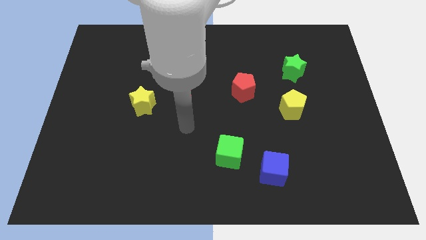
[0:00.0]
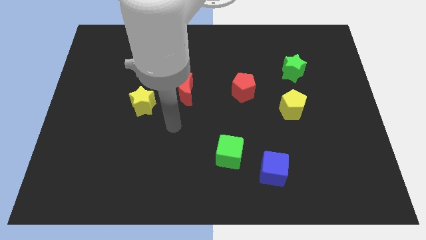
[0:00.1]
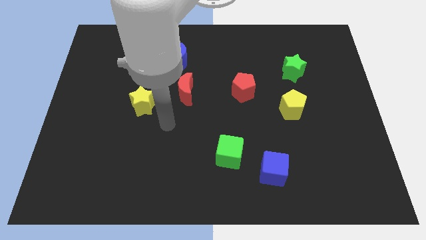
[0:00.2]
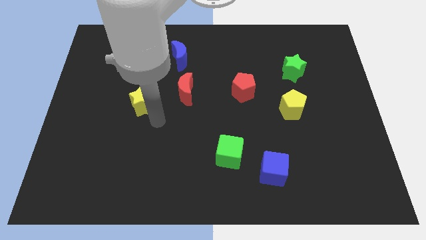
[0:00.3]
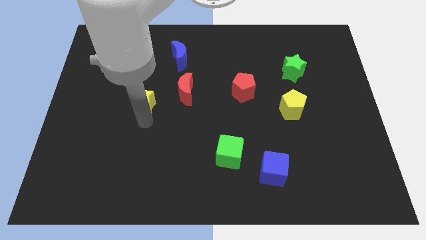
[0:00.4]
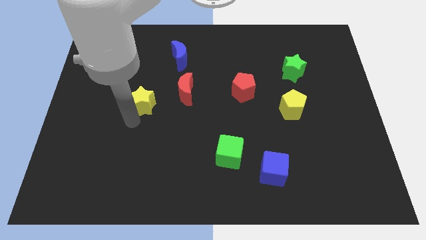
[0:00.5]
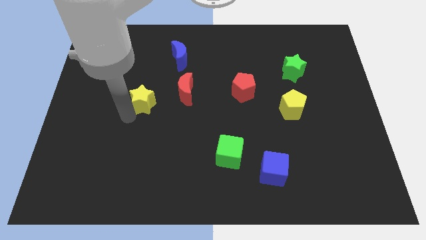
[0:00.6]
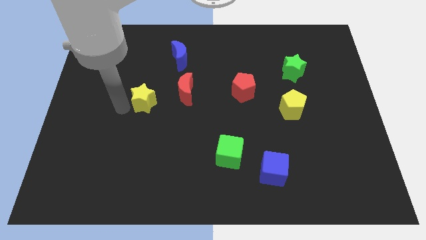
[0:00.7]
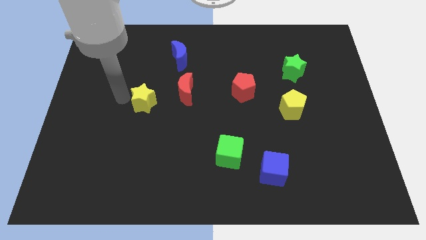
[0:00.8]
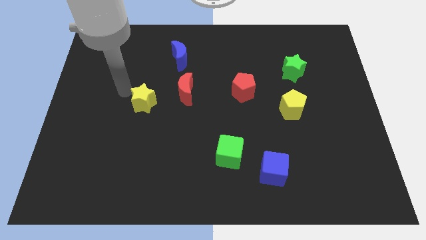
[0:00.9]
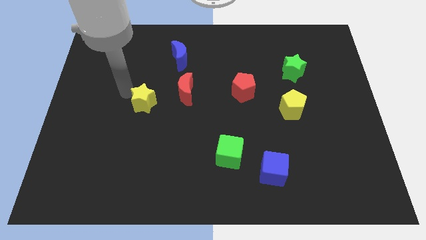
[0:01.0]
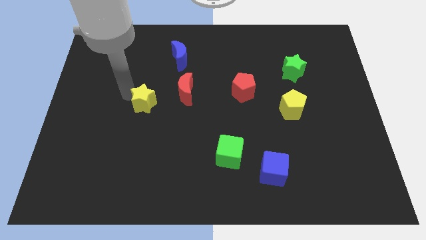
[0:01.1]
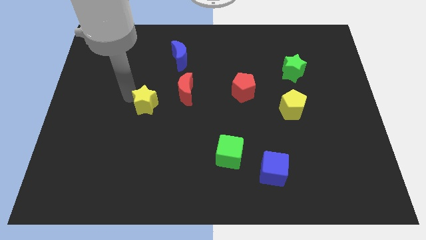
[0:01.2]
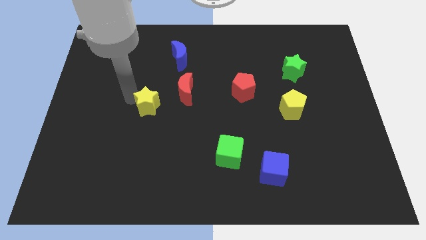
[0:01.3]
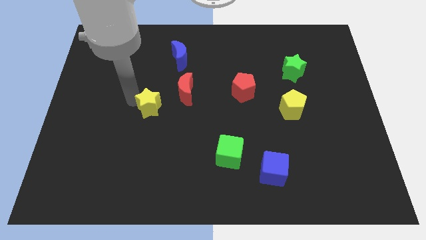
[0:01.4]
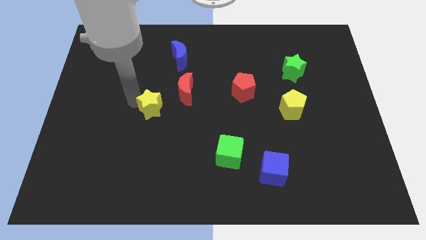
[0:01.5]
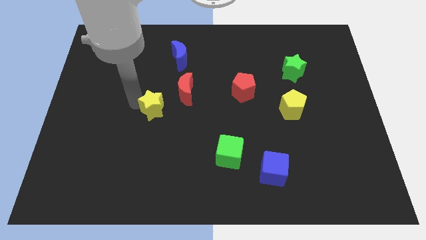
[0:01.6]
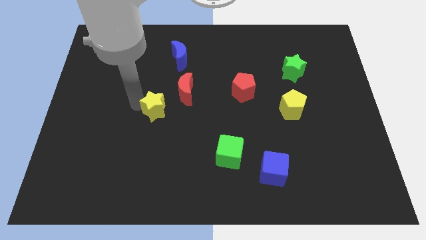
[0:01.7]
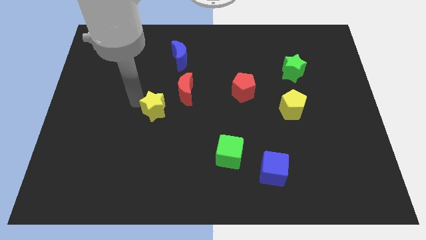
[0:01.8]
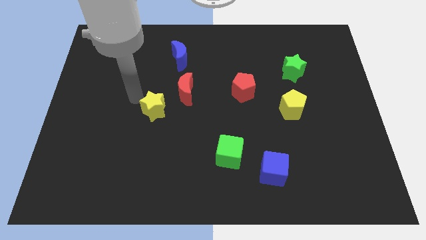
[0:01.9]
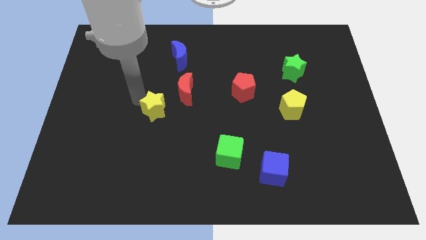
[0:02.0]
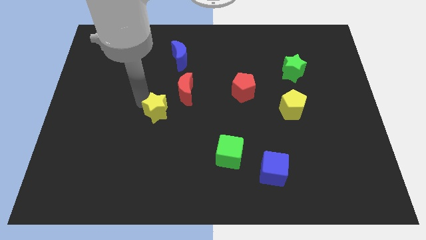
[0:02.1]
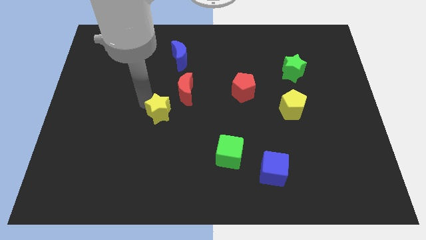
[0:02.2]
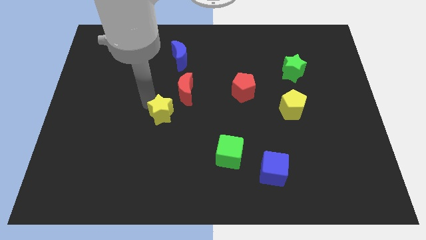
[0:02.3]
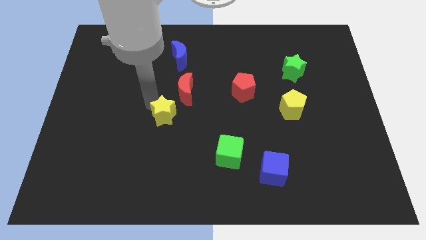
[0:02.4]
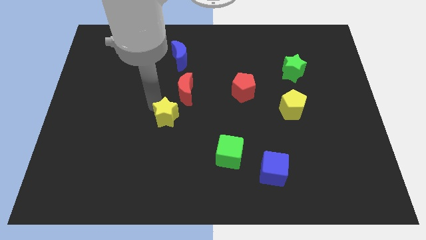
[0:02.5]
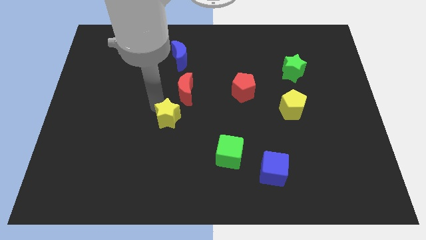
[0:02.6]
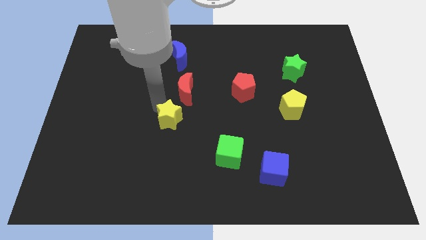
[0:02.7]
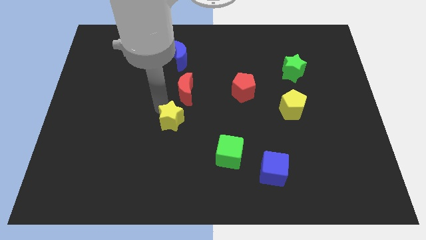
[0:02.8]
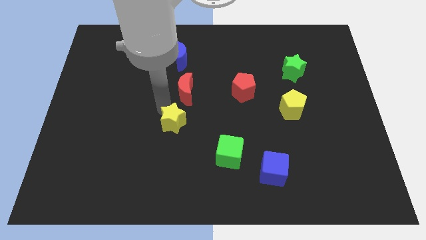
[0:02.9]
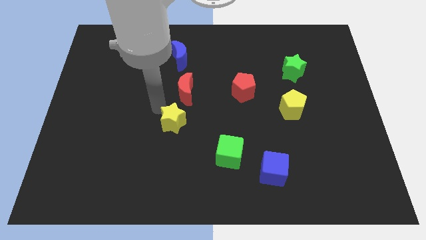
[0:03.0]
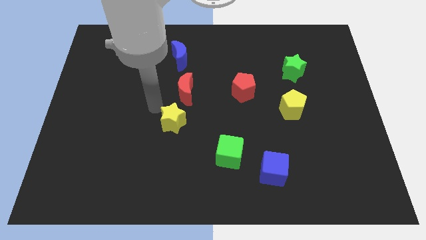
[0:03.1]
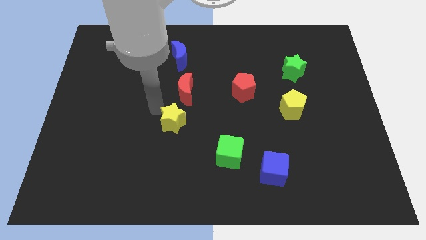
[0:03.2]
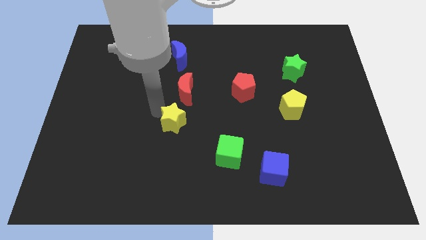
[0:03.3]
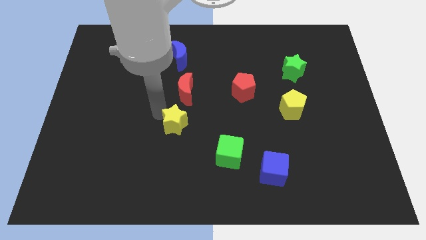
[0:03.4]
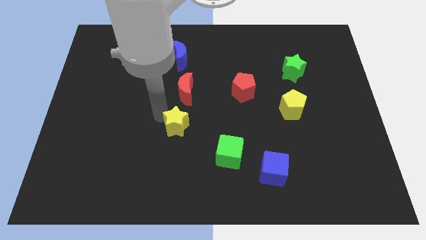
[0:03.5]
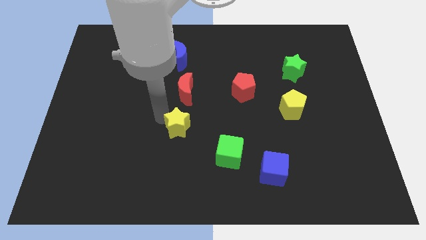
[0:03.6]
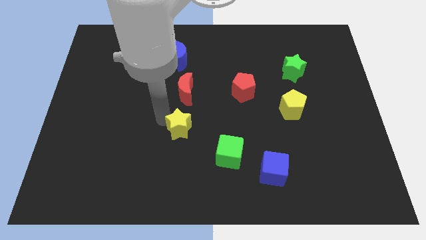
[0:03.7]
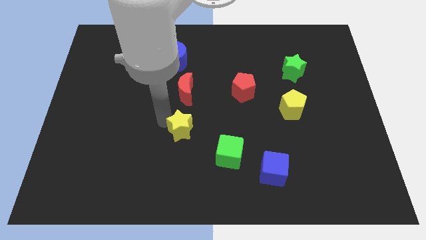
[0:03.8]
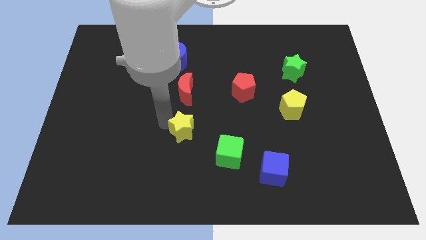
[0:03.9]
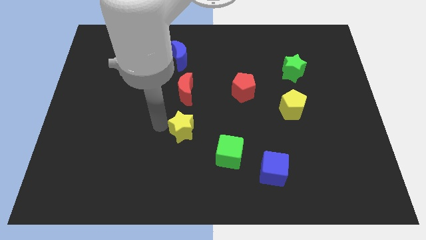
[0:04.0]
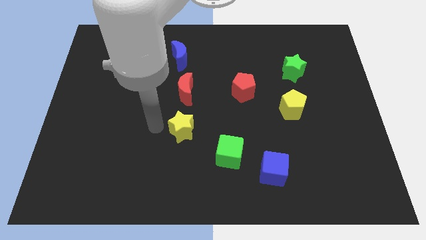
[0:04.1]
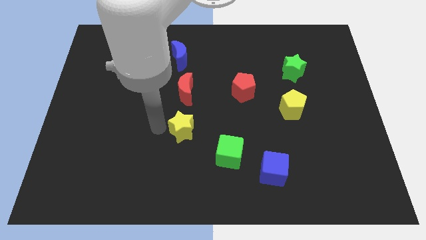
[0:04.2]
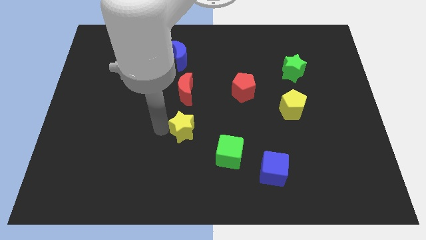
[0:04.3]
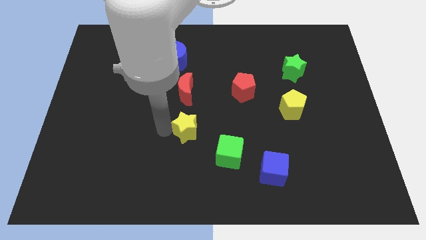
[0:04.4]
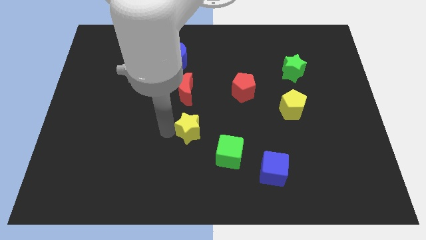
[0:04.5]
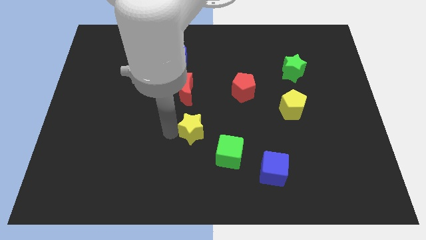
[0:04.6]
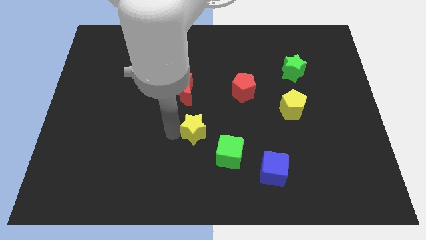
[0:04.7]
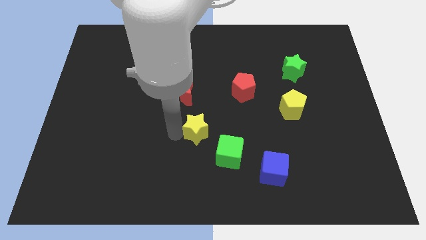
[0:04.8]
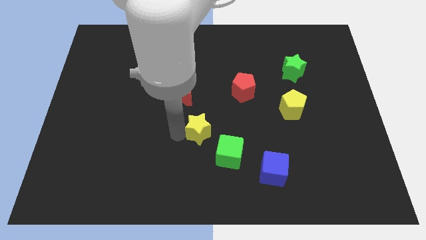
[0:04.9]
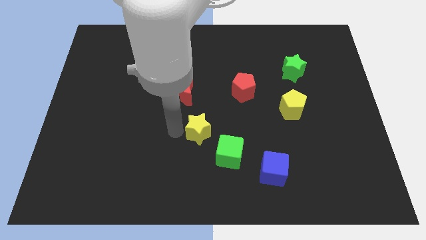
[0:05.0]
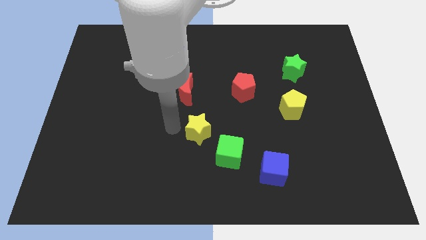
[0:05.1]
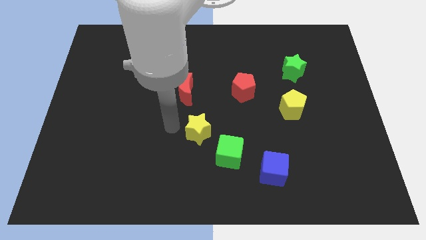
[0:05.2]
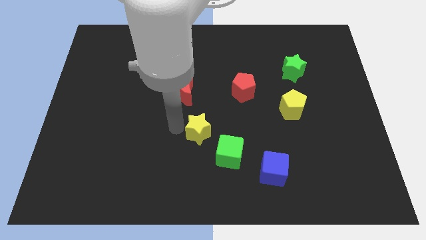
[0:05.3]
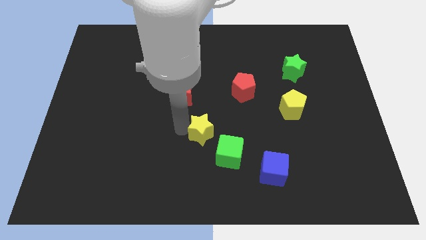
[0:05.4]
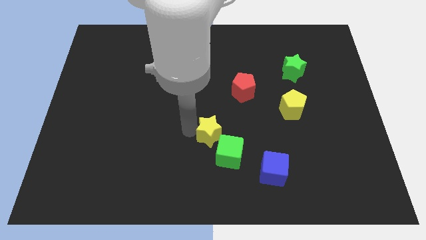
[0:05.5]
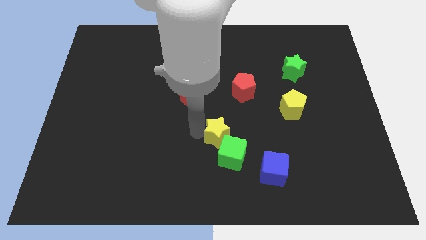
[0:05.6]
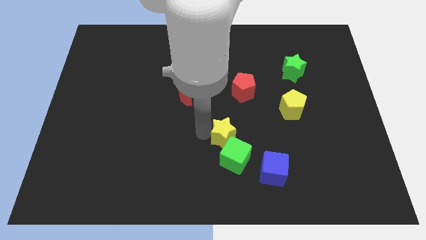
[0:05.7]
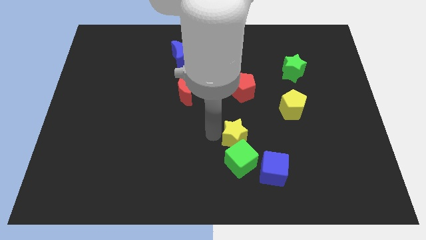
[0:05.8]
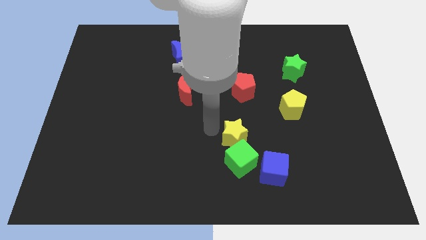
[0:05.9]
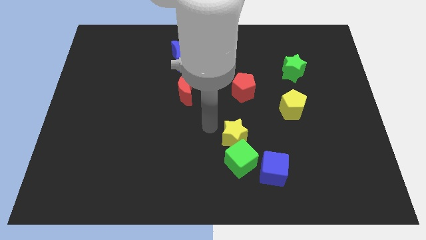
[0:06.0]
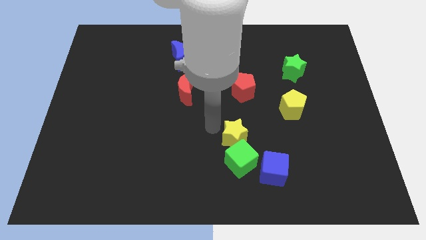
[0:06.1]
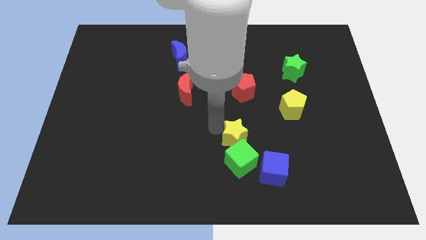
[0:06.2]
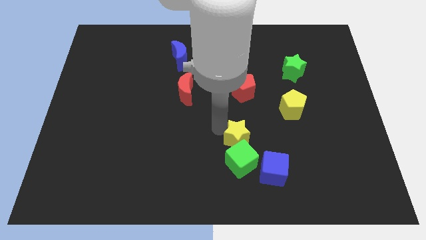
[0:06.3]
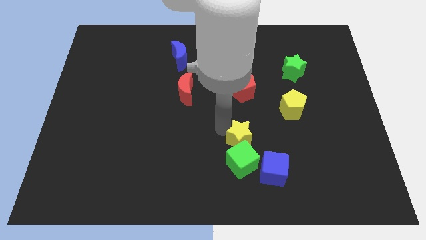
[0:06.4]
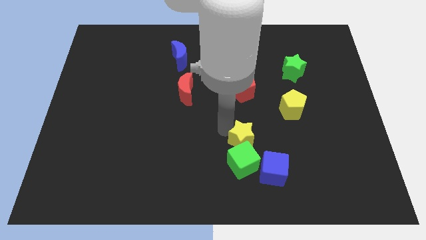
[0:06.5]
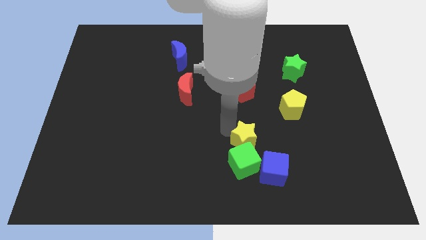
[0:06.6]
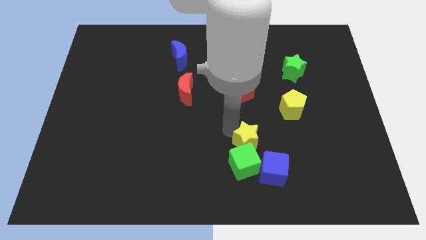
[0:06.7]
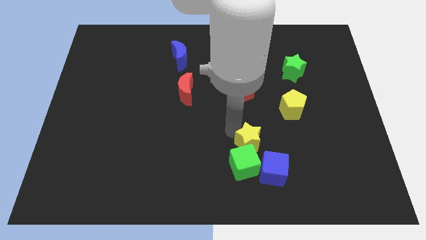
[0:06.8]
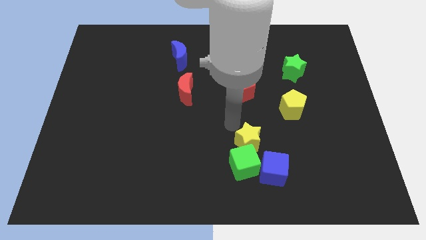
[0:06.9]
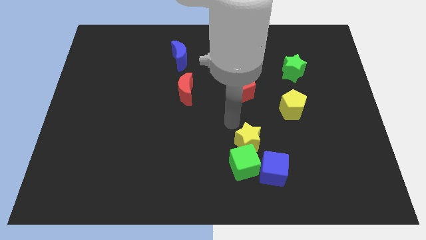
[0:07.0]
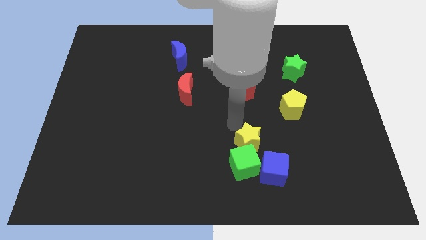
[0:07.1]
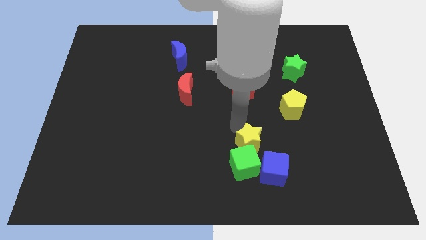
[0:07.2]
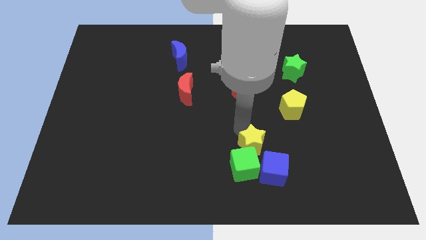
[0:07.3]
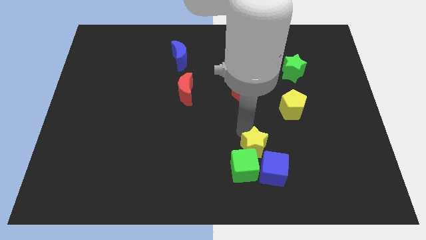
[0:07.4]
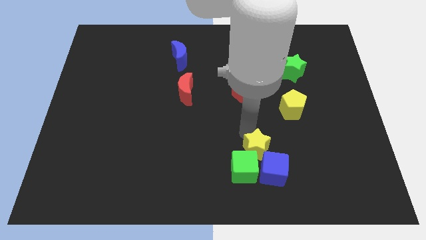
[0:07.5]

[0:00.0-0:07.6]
move the yellow star towards the blue cube
